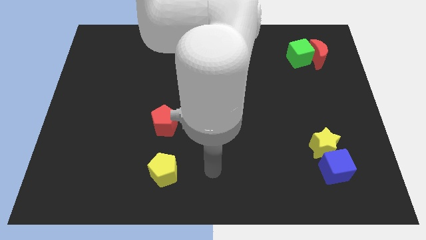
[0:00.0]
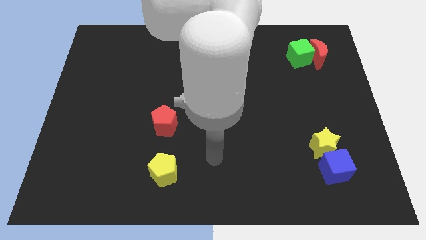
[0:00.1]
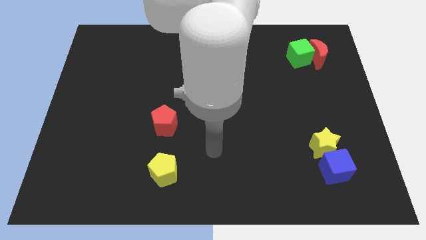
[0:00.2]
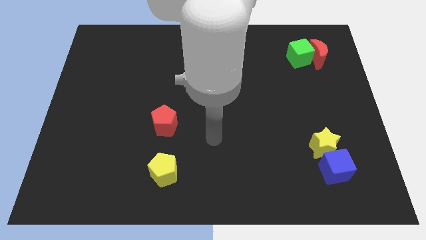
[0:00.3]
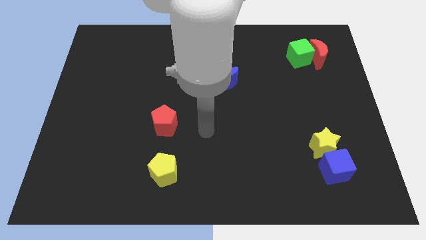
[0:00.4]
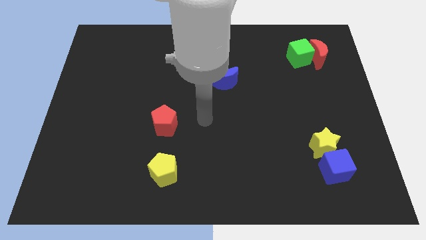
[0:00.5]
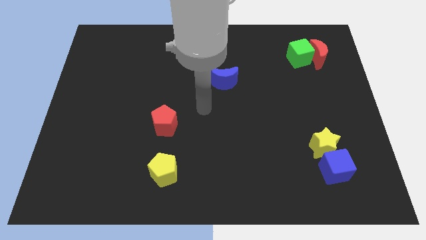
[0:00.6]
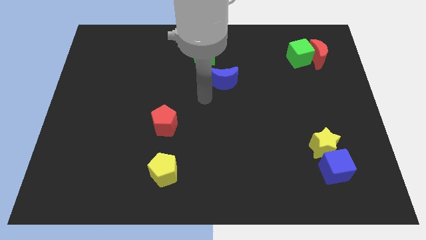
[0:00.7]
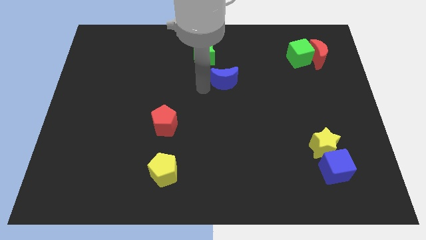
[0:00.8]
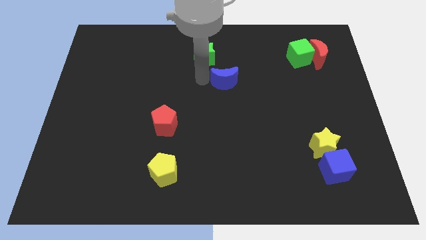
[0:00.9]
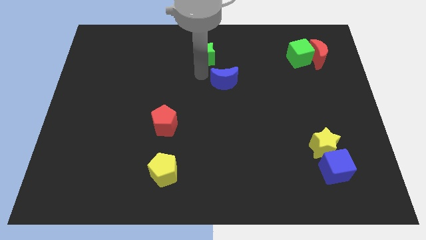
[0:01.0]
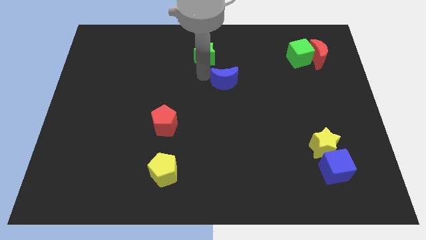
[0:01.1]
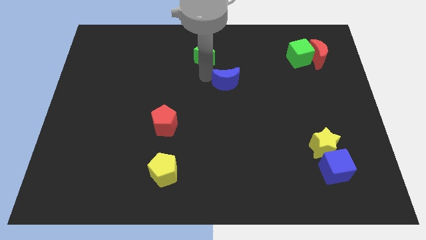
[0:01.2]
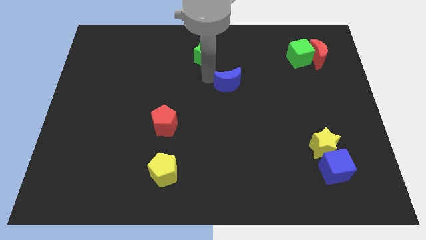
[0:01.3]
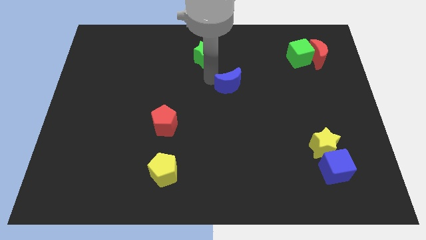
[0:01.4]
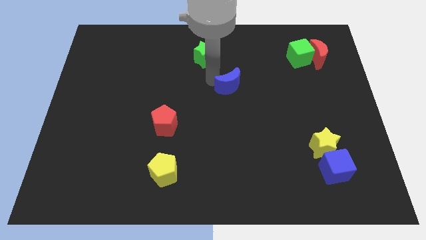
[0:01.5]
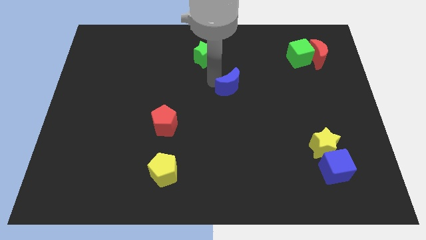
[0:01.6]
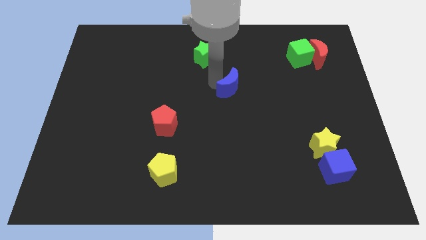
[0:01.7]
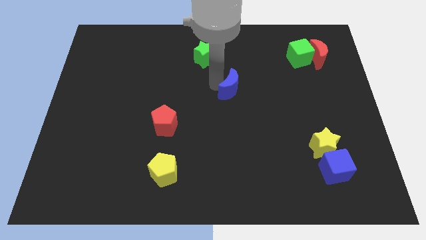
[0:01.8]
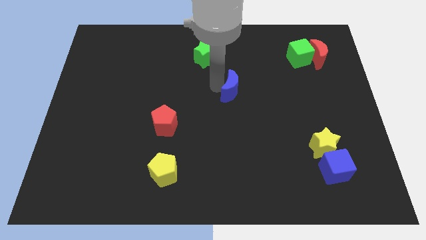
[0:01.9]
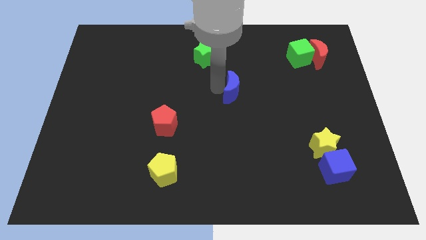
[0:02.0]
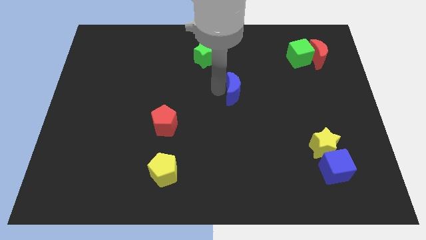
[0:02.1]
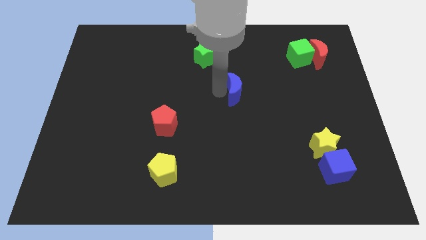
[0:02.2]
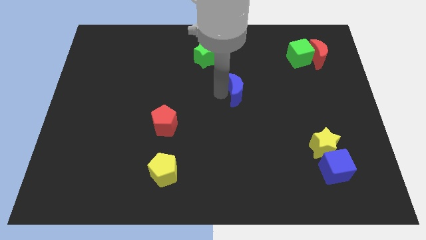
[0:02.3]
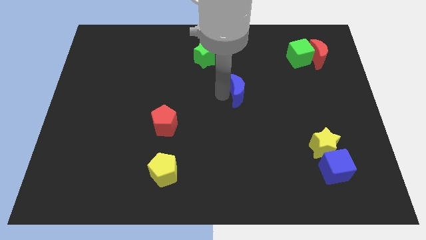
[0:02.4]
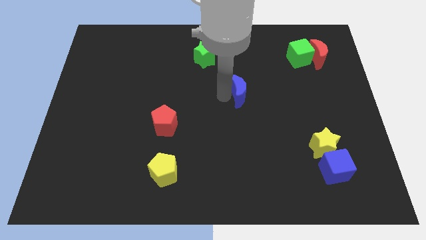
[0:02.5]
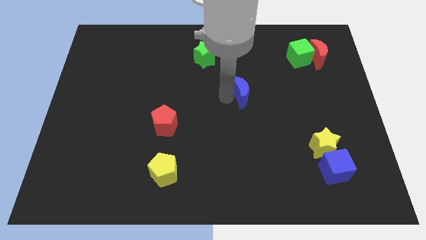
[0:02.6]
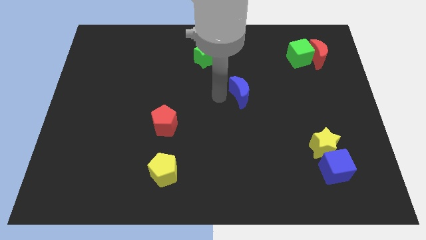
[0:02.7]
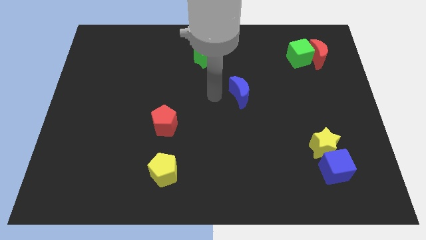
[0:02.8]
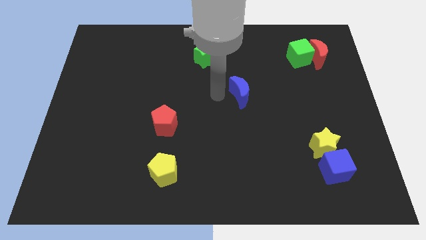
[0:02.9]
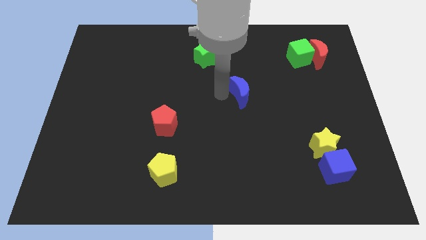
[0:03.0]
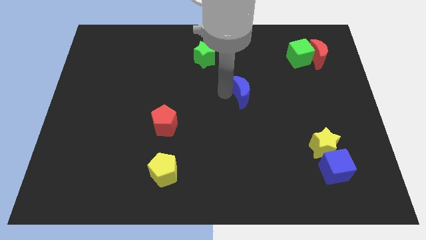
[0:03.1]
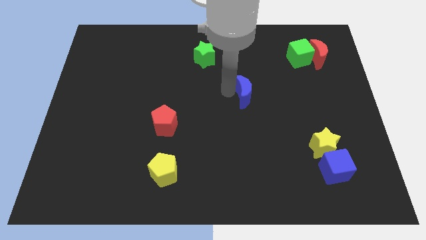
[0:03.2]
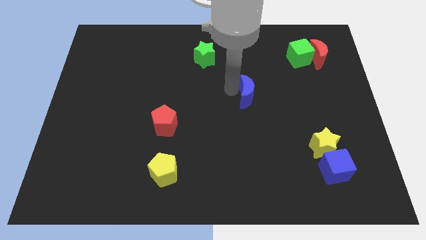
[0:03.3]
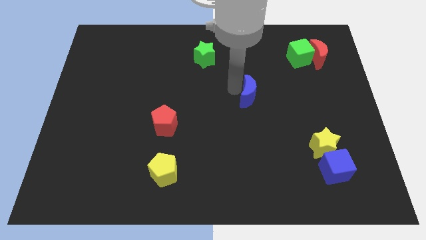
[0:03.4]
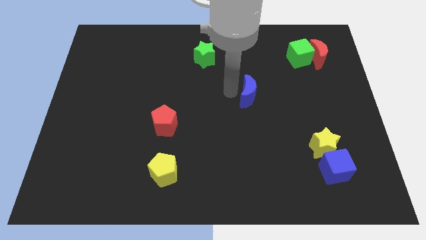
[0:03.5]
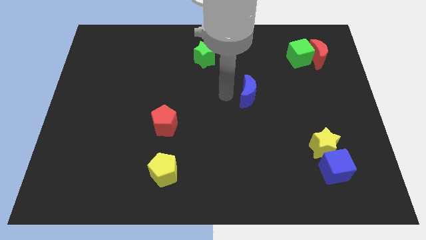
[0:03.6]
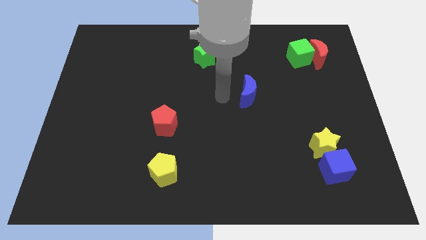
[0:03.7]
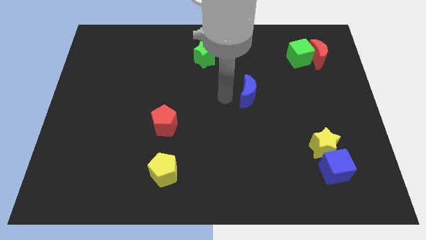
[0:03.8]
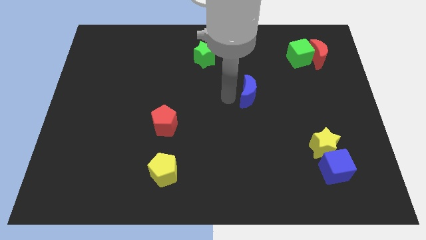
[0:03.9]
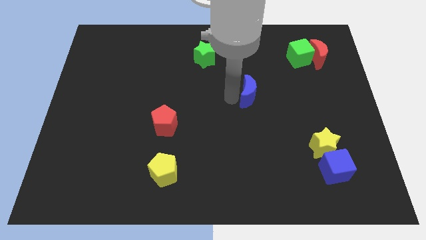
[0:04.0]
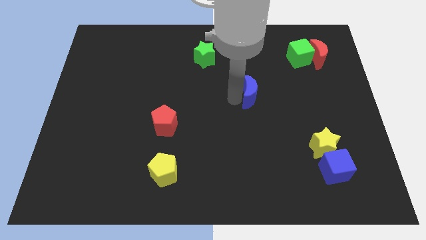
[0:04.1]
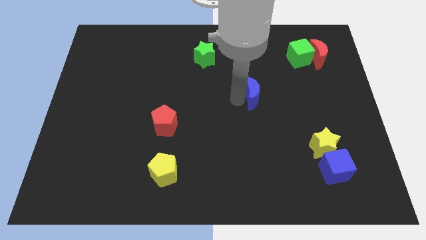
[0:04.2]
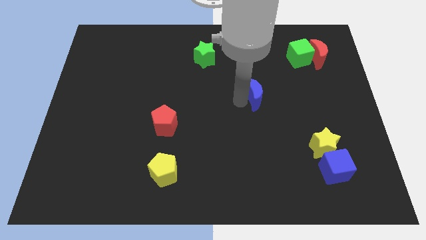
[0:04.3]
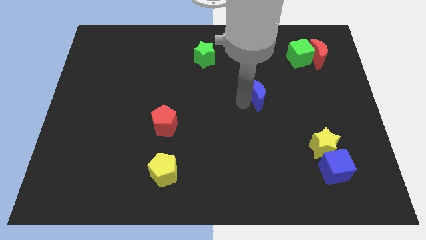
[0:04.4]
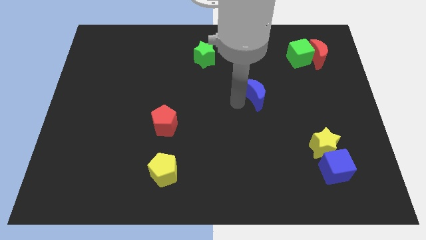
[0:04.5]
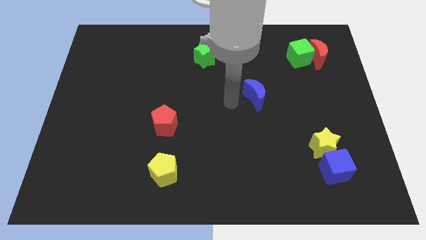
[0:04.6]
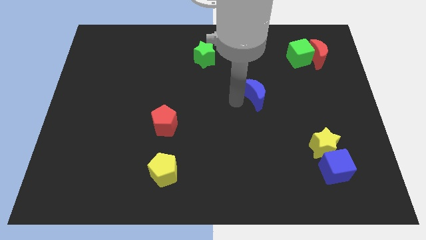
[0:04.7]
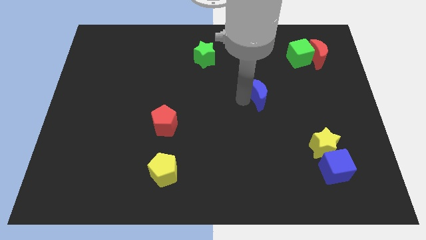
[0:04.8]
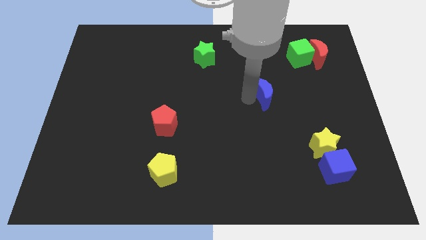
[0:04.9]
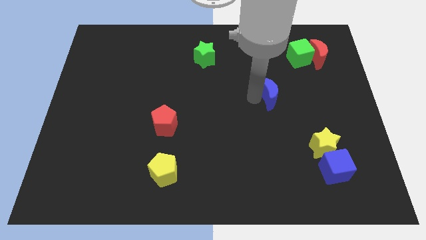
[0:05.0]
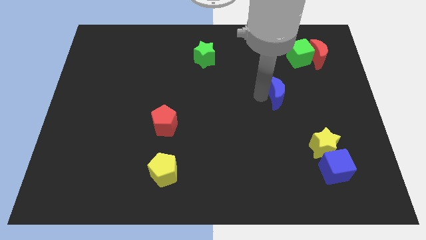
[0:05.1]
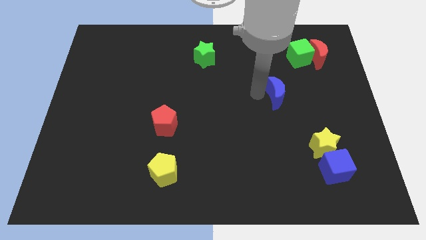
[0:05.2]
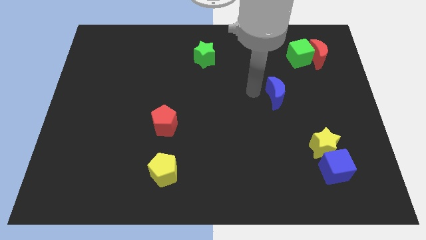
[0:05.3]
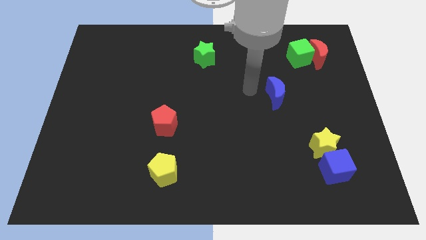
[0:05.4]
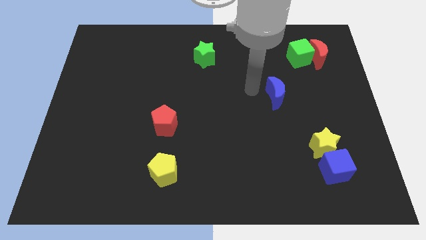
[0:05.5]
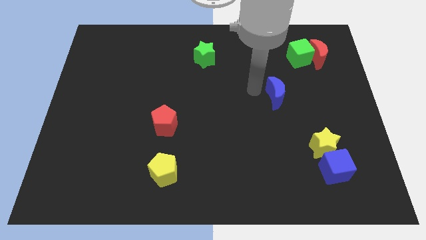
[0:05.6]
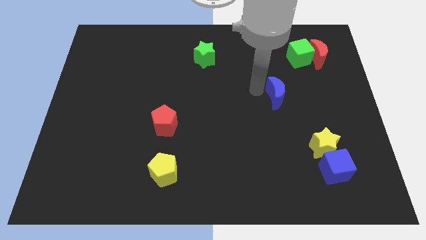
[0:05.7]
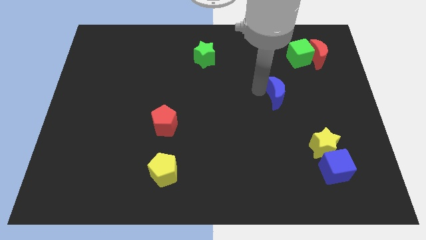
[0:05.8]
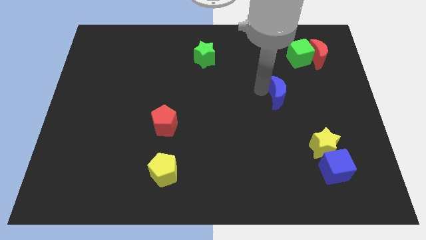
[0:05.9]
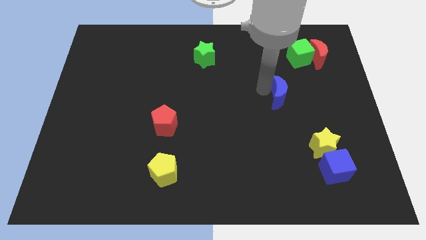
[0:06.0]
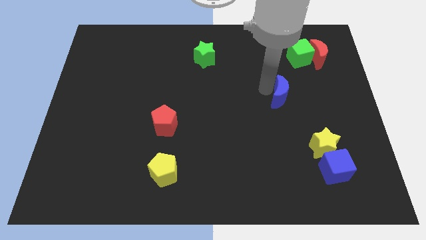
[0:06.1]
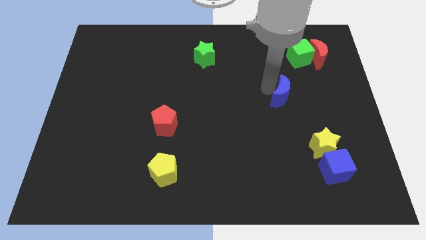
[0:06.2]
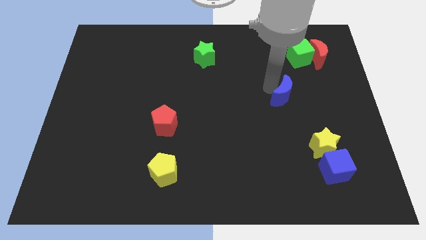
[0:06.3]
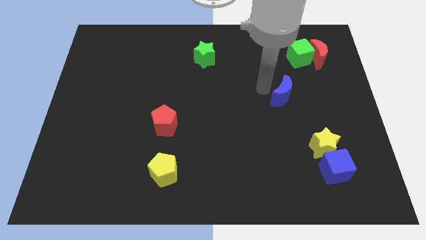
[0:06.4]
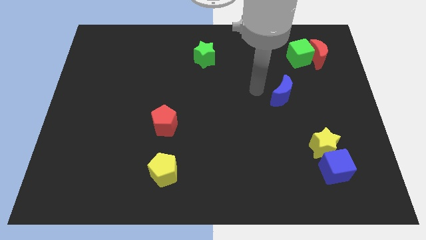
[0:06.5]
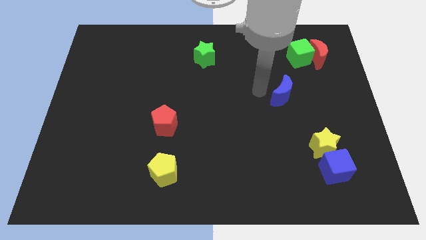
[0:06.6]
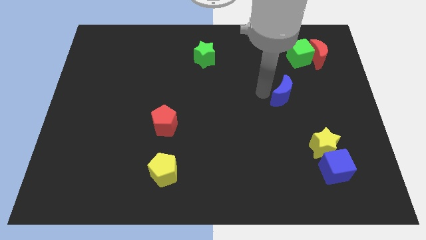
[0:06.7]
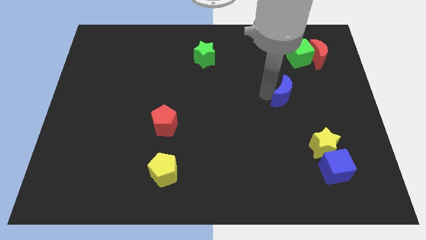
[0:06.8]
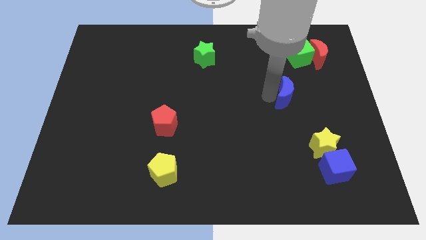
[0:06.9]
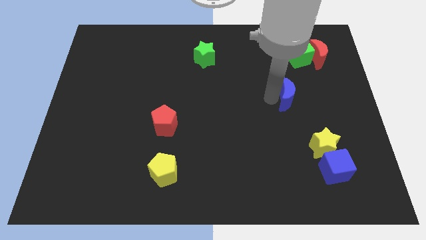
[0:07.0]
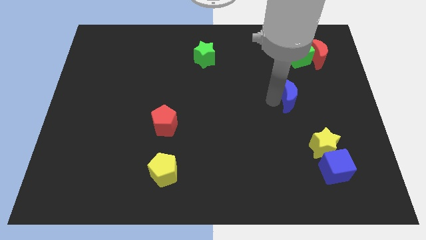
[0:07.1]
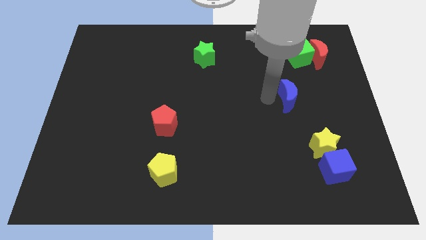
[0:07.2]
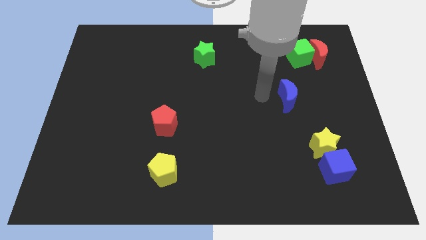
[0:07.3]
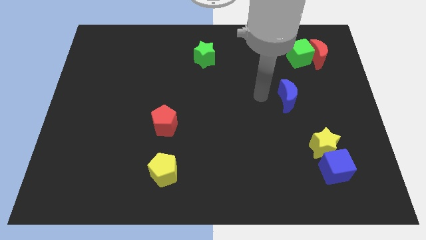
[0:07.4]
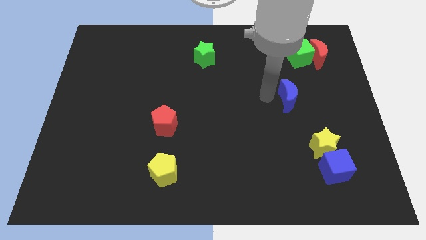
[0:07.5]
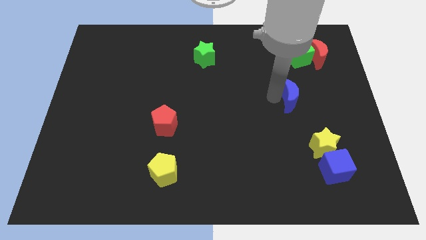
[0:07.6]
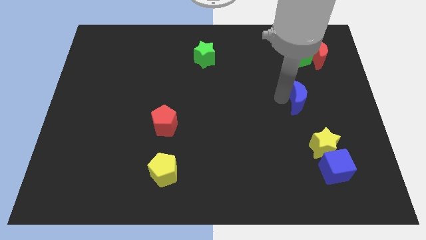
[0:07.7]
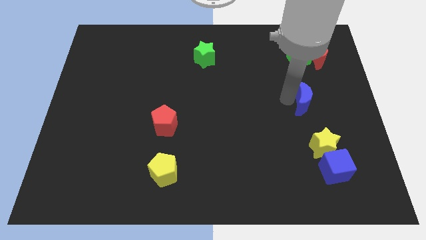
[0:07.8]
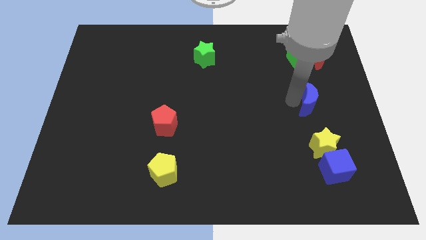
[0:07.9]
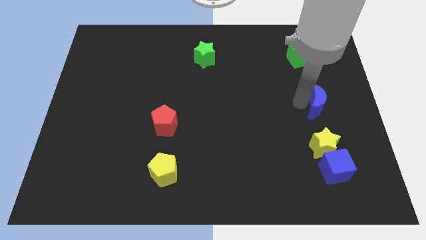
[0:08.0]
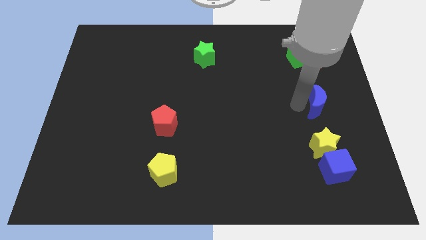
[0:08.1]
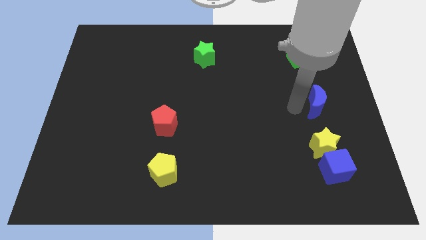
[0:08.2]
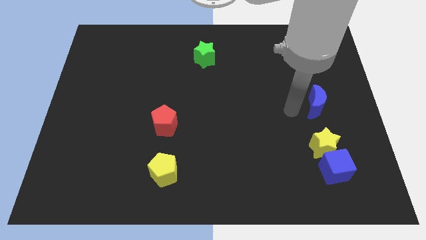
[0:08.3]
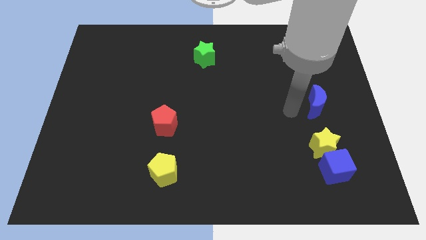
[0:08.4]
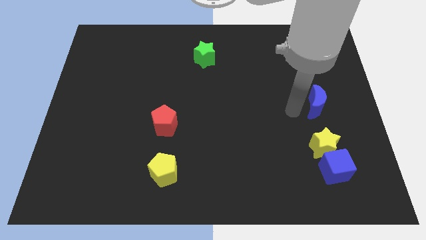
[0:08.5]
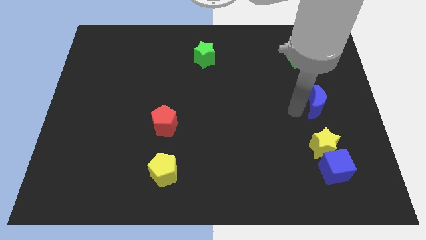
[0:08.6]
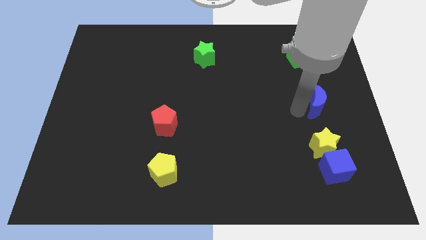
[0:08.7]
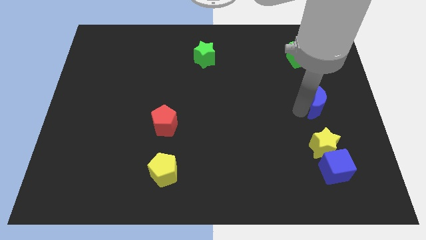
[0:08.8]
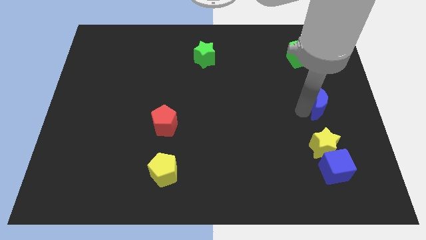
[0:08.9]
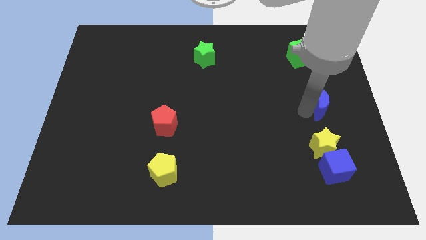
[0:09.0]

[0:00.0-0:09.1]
slide the blue moon to the right side
